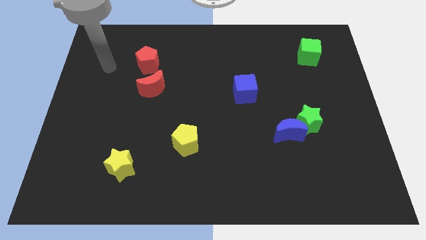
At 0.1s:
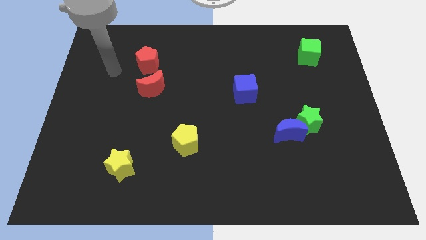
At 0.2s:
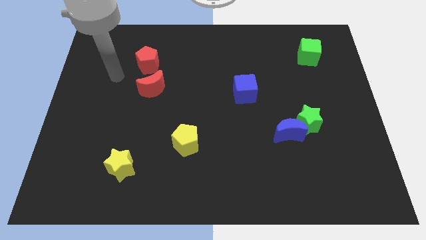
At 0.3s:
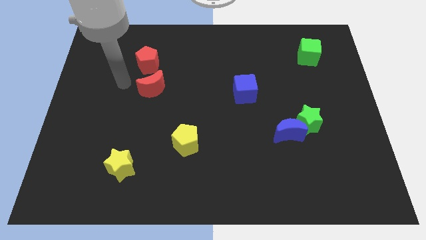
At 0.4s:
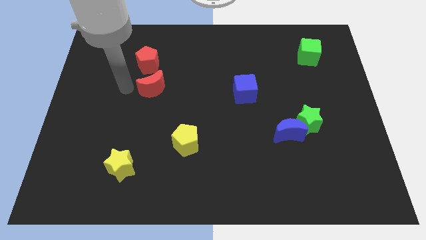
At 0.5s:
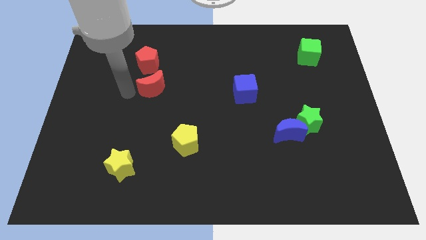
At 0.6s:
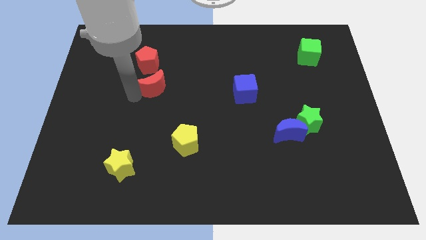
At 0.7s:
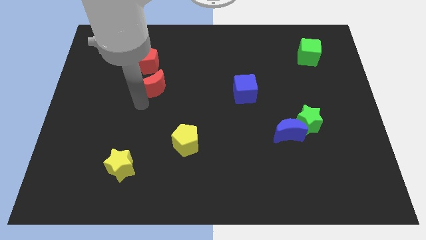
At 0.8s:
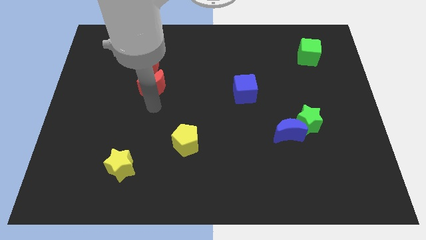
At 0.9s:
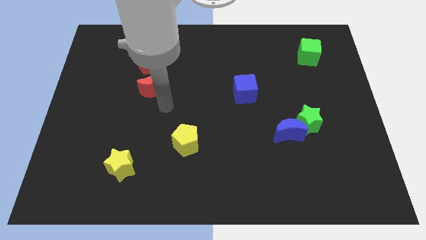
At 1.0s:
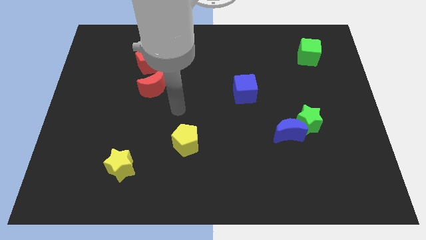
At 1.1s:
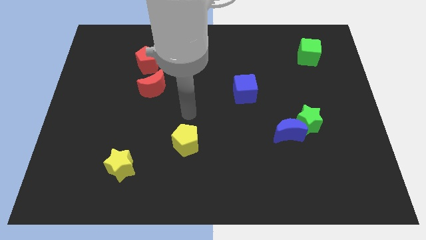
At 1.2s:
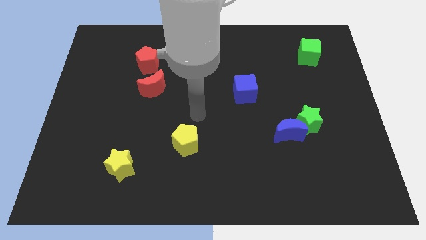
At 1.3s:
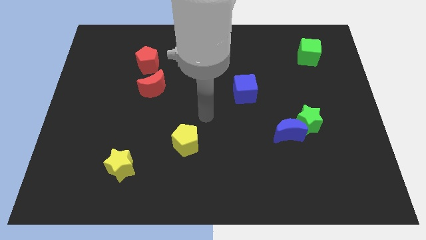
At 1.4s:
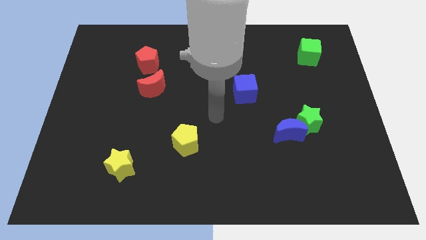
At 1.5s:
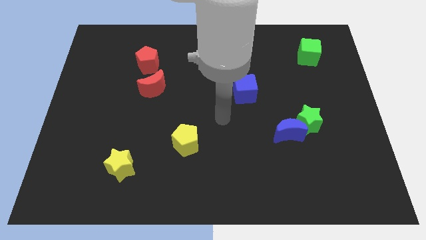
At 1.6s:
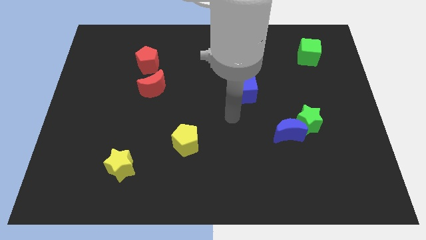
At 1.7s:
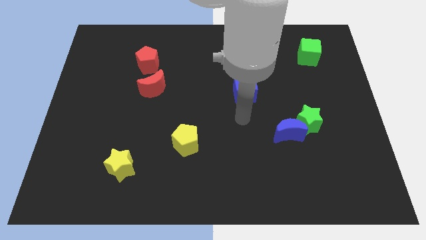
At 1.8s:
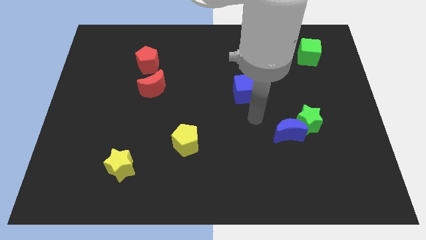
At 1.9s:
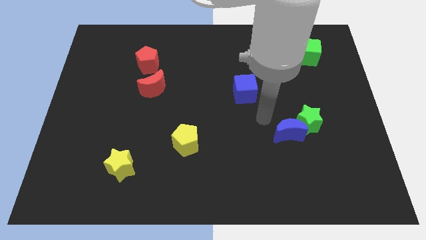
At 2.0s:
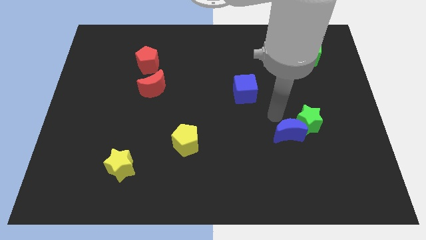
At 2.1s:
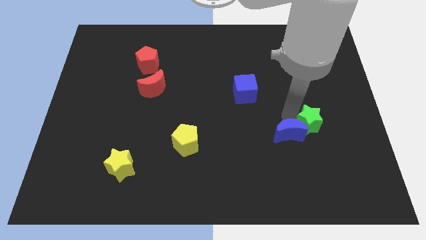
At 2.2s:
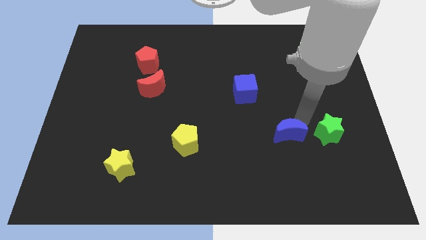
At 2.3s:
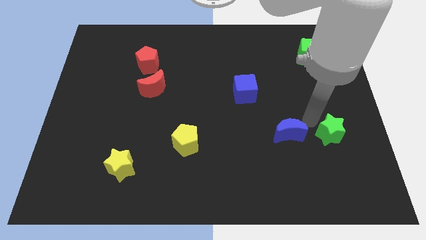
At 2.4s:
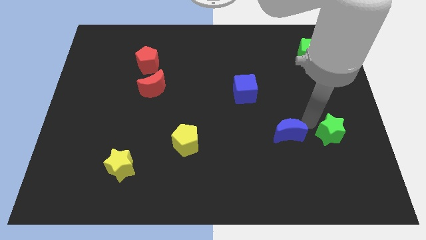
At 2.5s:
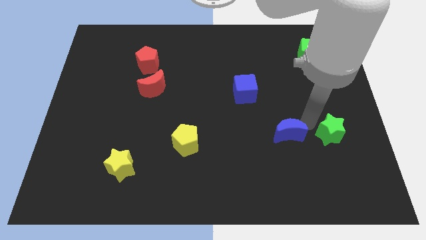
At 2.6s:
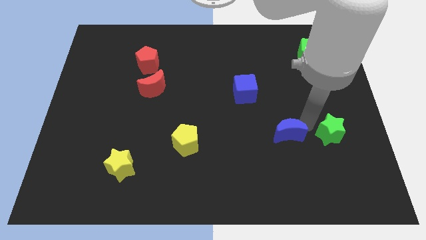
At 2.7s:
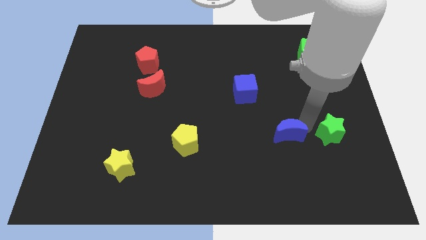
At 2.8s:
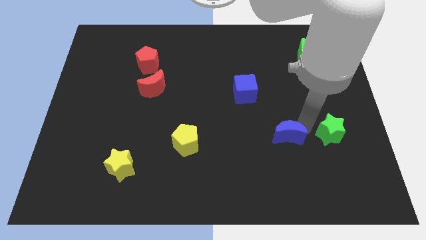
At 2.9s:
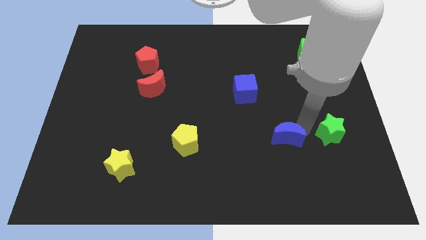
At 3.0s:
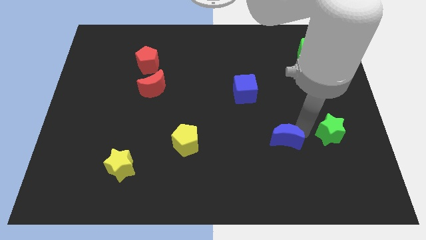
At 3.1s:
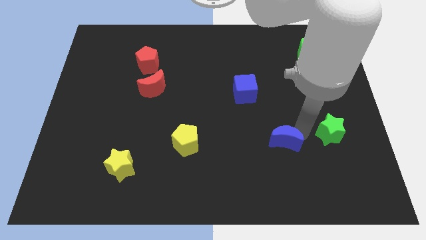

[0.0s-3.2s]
pull the blue moon apart from the green star

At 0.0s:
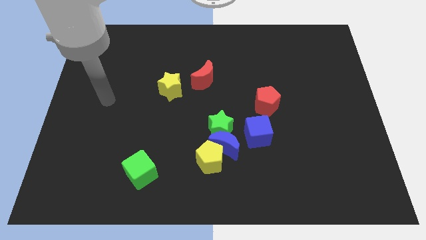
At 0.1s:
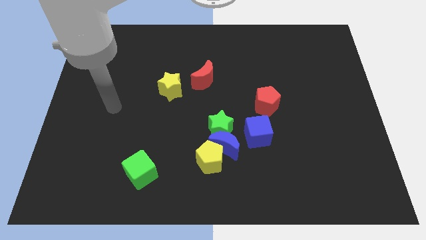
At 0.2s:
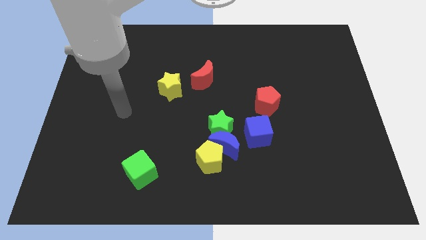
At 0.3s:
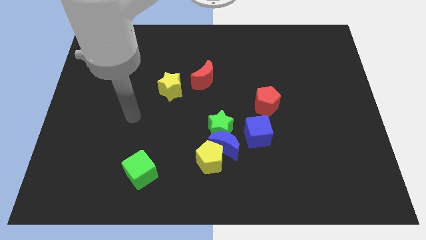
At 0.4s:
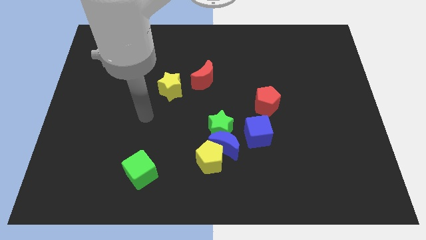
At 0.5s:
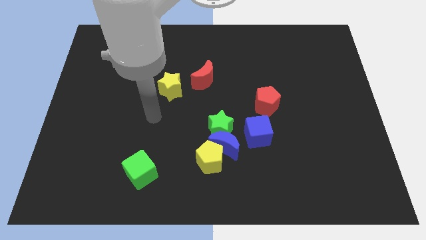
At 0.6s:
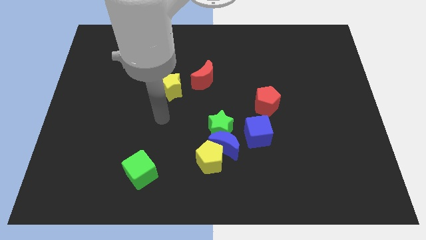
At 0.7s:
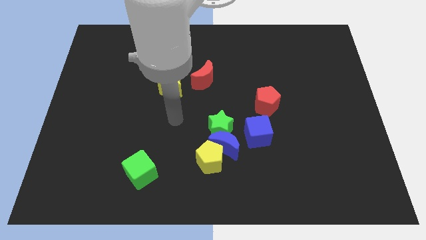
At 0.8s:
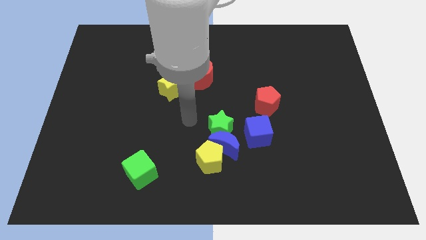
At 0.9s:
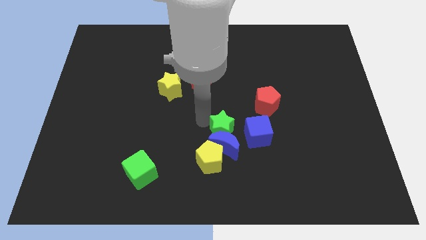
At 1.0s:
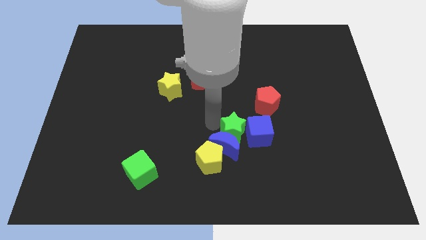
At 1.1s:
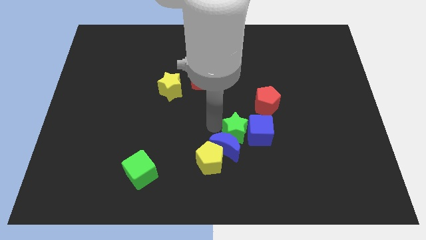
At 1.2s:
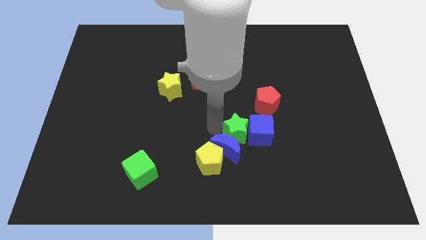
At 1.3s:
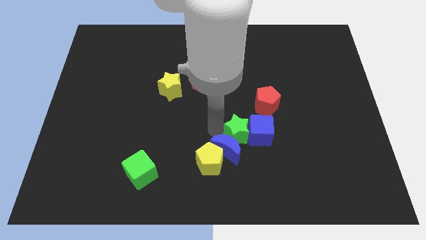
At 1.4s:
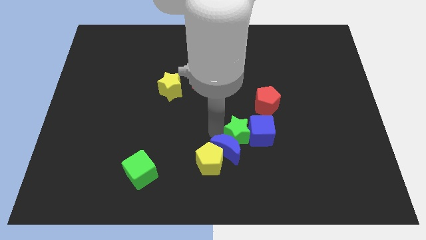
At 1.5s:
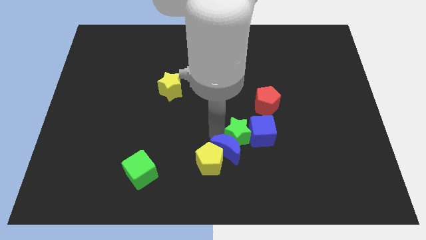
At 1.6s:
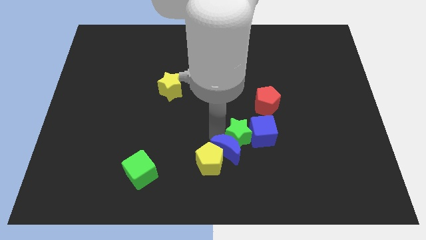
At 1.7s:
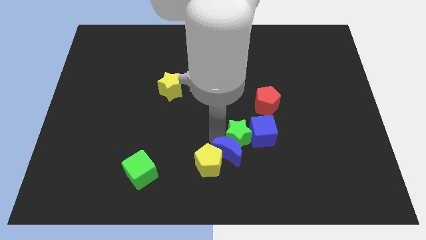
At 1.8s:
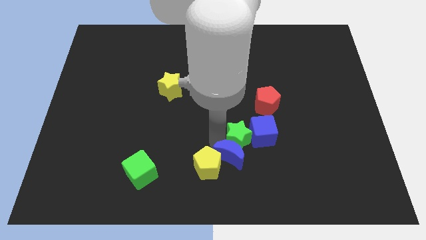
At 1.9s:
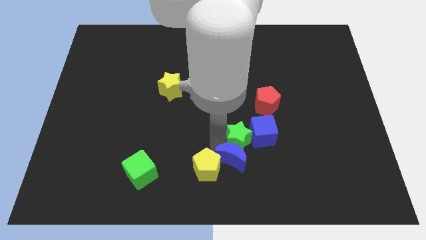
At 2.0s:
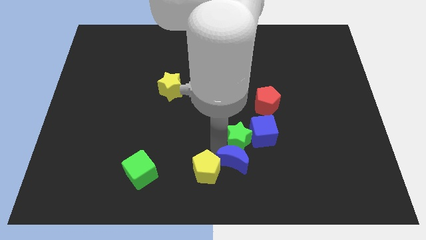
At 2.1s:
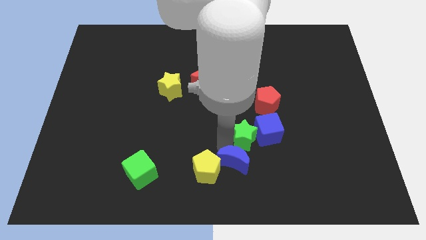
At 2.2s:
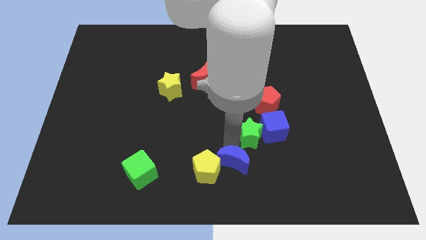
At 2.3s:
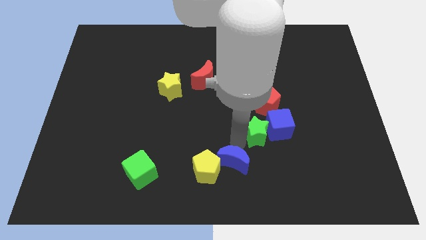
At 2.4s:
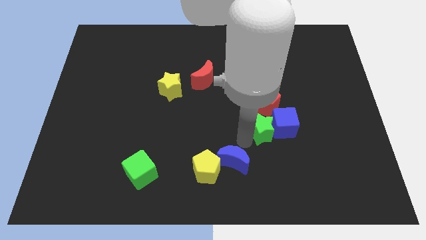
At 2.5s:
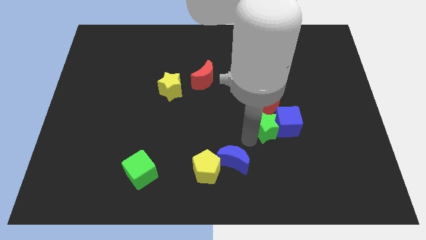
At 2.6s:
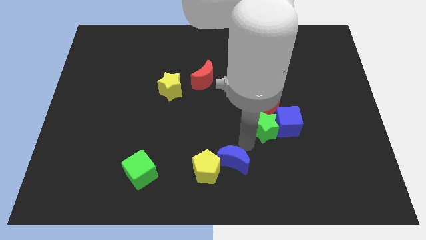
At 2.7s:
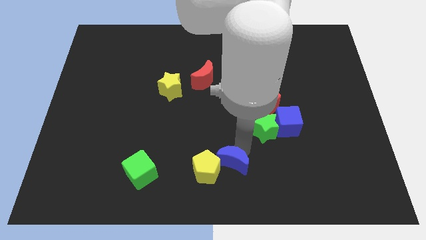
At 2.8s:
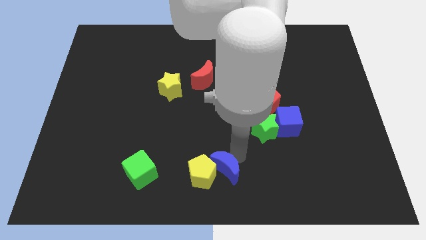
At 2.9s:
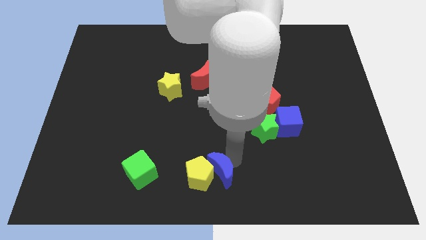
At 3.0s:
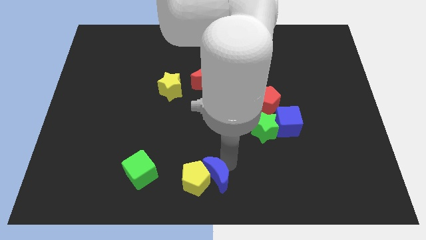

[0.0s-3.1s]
pull the blue moon apart from the yellow pentagon, green star, and blue cube

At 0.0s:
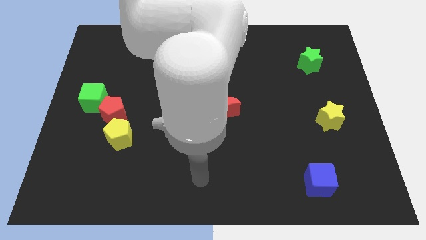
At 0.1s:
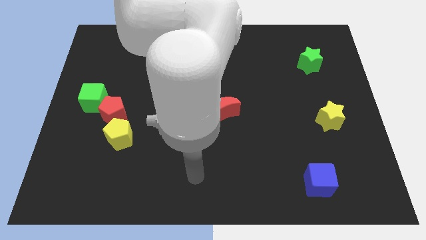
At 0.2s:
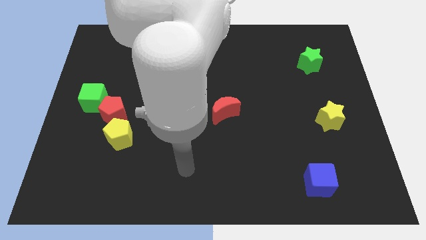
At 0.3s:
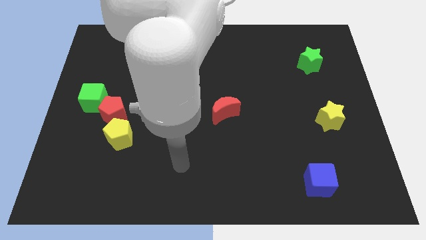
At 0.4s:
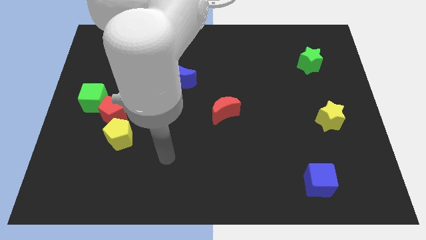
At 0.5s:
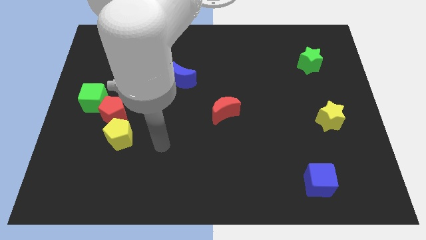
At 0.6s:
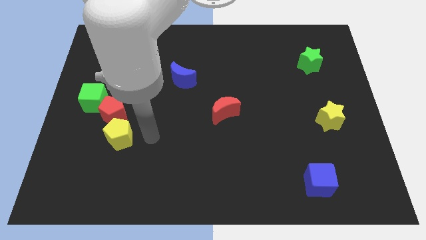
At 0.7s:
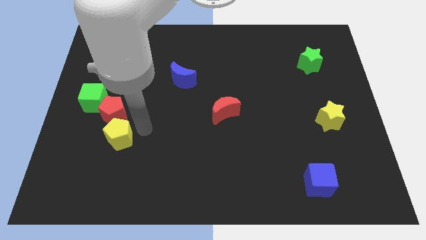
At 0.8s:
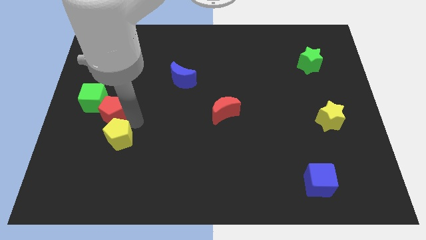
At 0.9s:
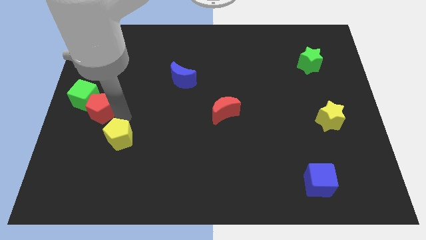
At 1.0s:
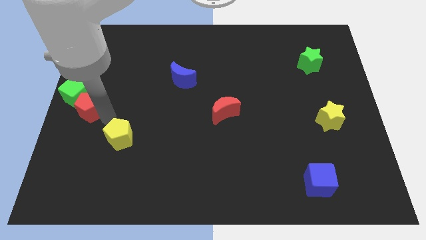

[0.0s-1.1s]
move the yellow pentagon away from the red pentagon

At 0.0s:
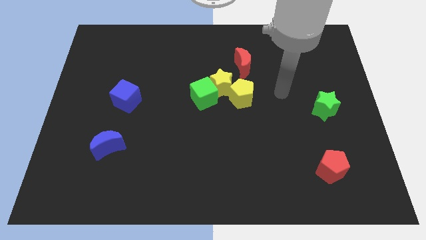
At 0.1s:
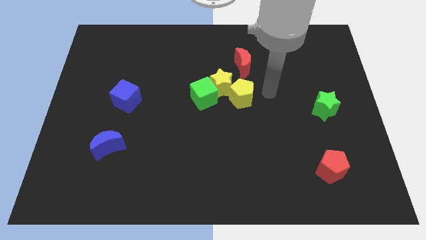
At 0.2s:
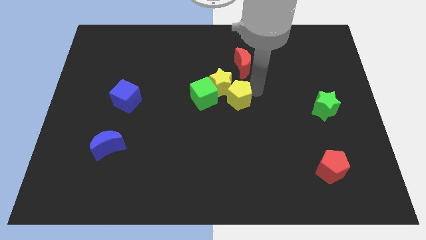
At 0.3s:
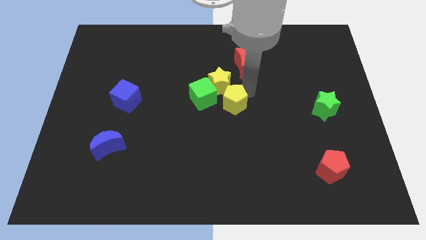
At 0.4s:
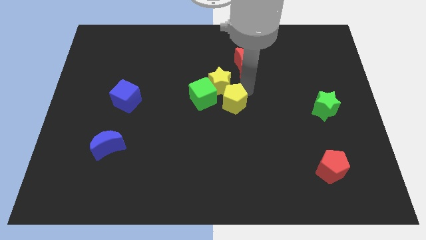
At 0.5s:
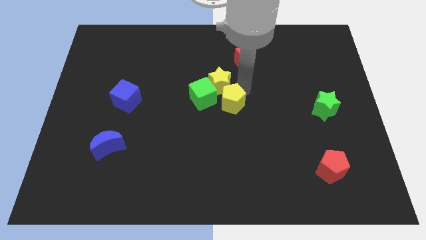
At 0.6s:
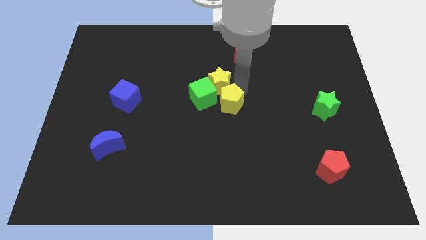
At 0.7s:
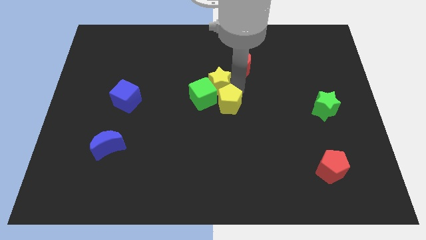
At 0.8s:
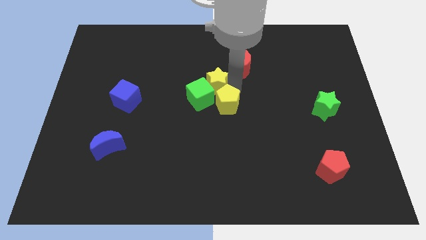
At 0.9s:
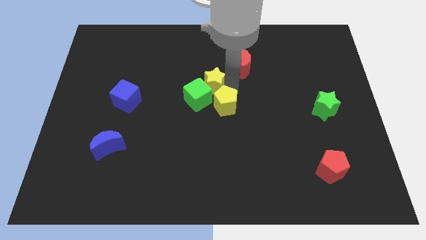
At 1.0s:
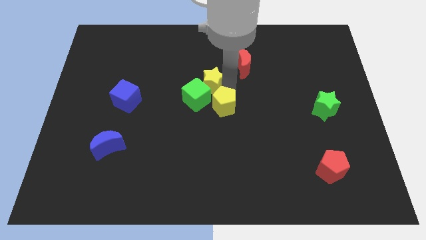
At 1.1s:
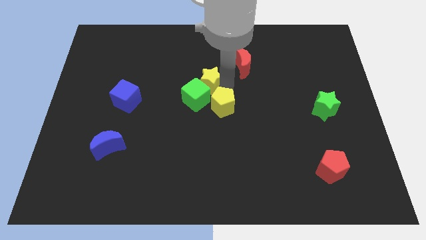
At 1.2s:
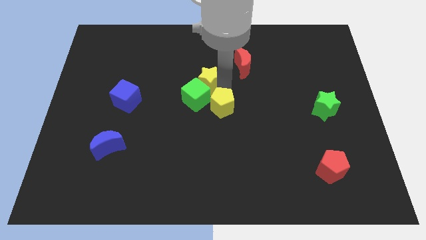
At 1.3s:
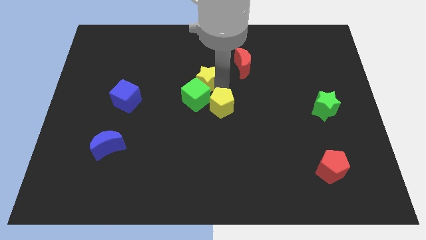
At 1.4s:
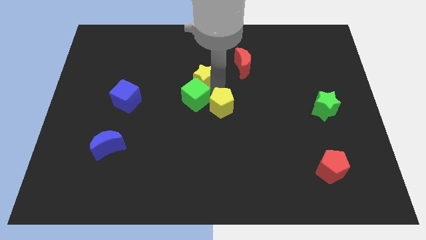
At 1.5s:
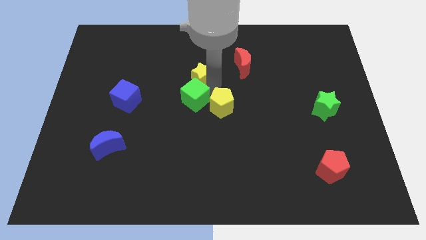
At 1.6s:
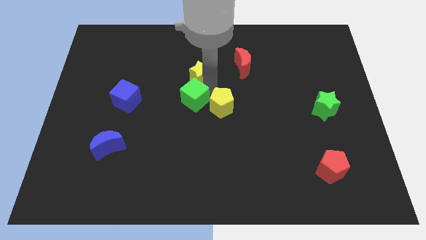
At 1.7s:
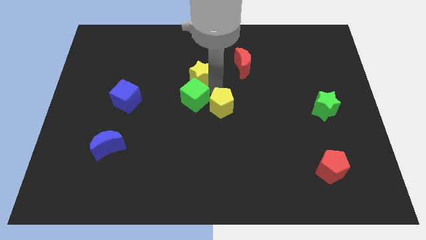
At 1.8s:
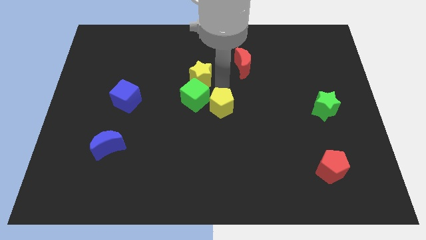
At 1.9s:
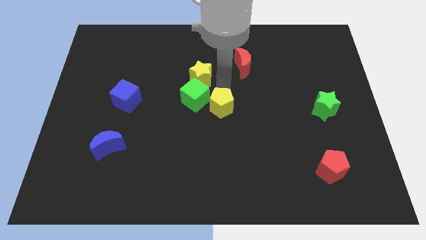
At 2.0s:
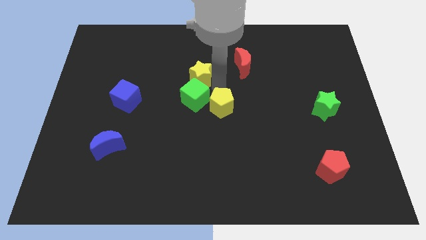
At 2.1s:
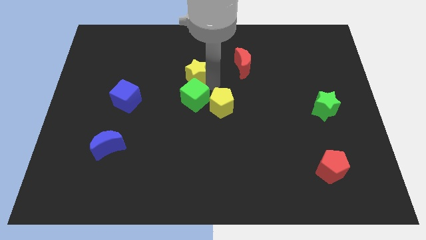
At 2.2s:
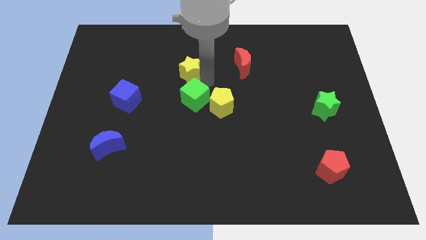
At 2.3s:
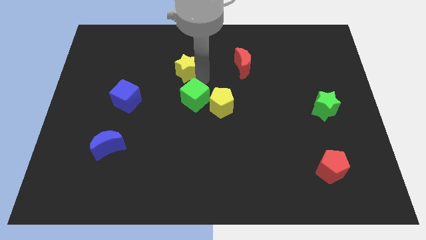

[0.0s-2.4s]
move the yellow star away from the group of blocks
